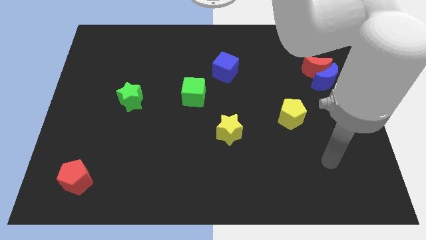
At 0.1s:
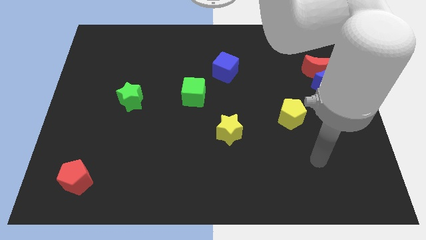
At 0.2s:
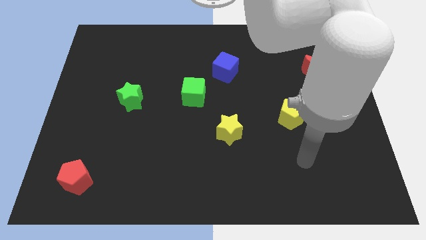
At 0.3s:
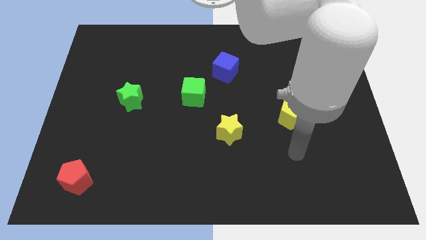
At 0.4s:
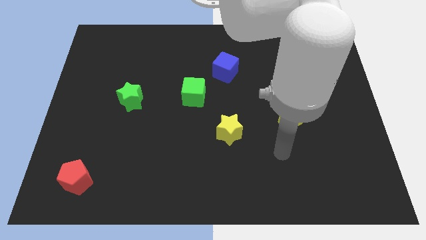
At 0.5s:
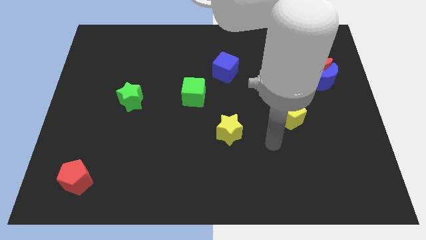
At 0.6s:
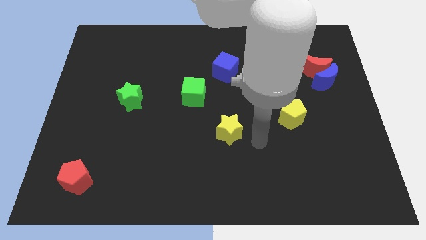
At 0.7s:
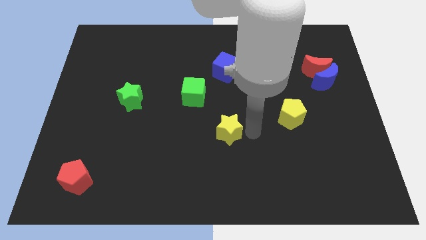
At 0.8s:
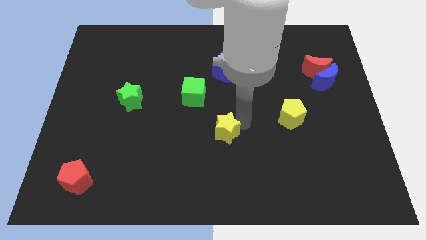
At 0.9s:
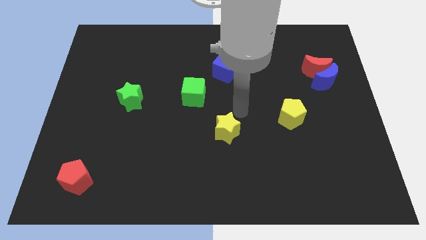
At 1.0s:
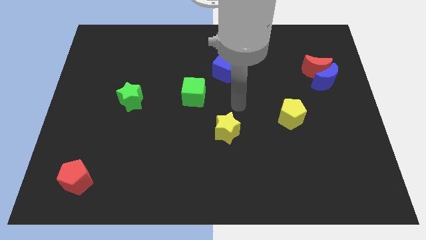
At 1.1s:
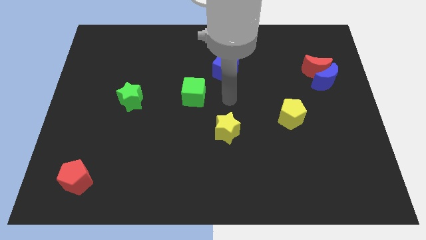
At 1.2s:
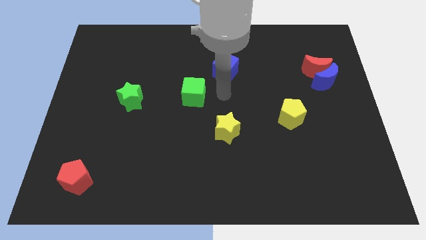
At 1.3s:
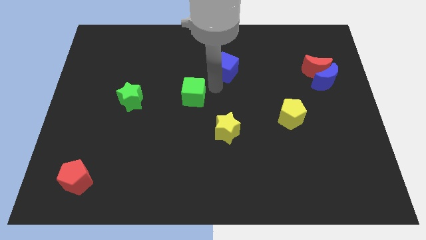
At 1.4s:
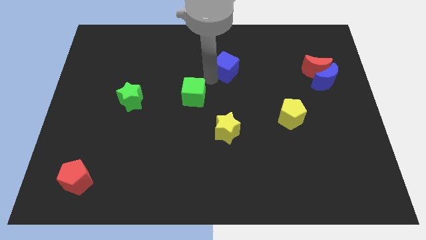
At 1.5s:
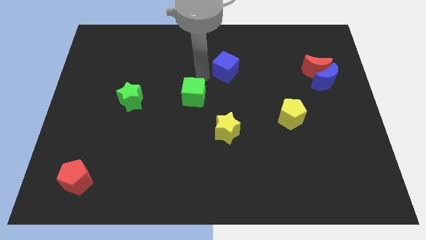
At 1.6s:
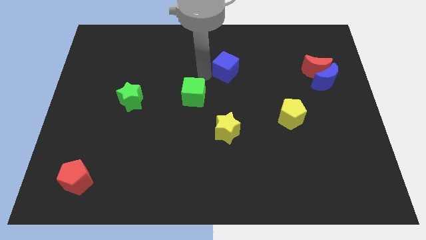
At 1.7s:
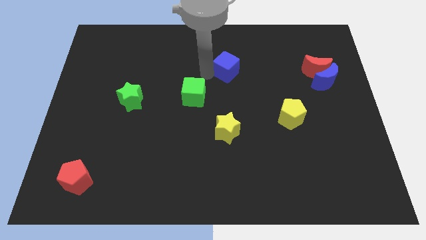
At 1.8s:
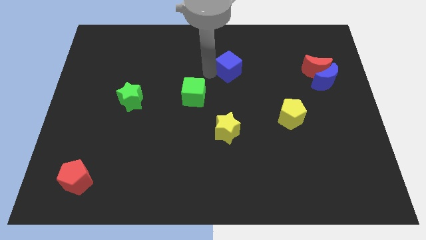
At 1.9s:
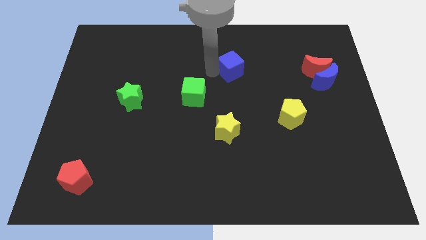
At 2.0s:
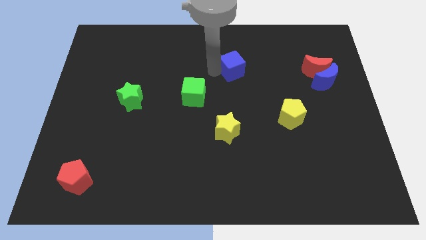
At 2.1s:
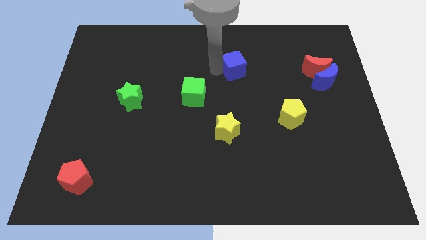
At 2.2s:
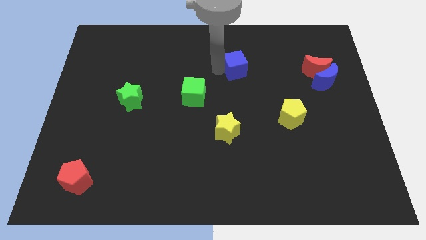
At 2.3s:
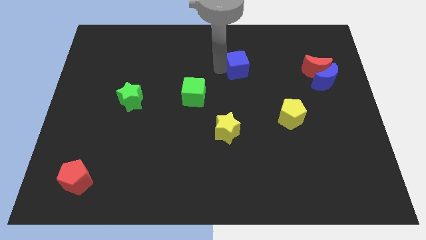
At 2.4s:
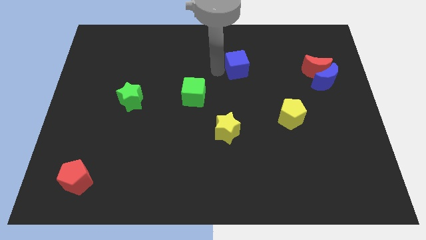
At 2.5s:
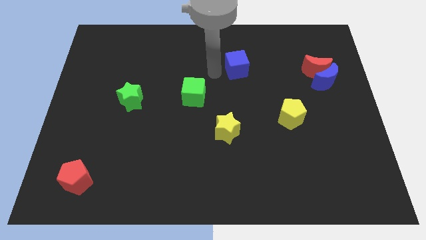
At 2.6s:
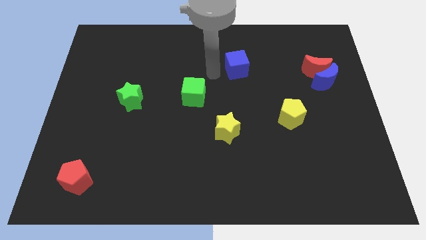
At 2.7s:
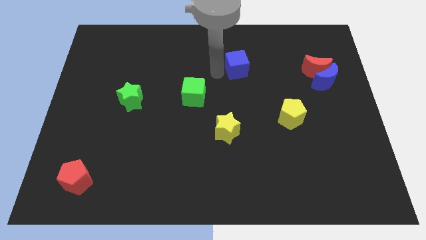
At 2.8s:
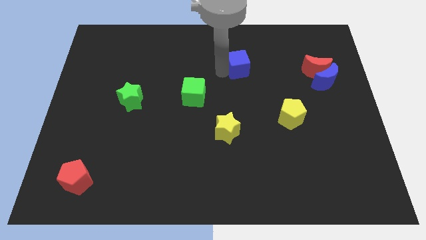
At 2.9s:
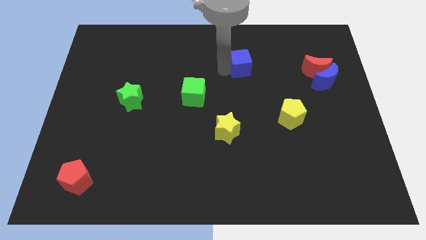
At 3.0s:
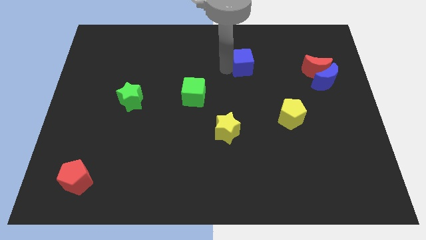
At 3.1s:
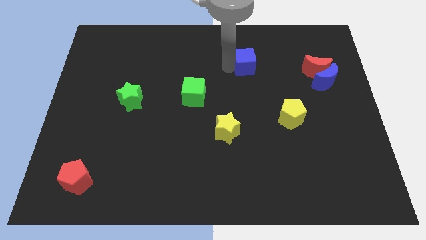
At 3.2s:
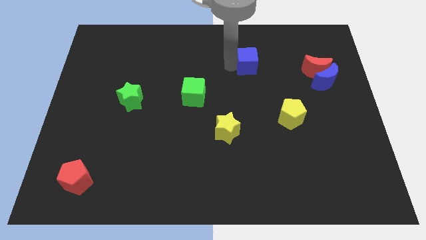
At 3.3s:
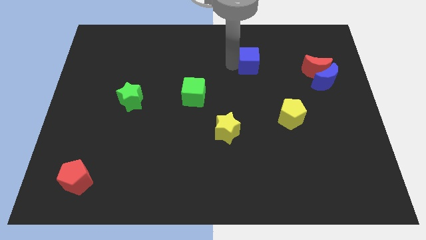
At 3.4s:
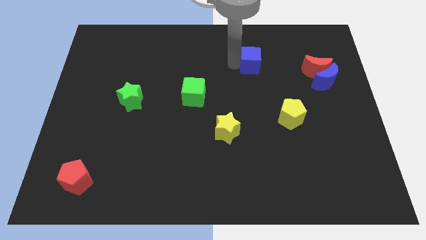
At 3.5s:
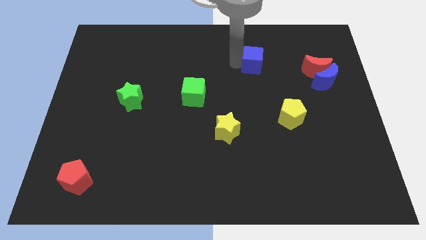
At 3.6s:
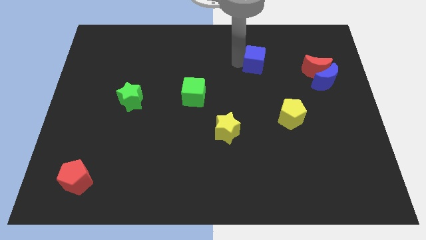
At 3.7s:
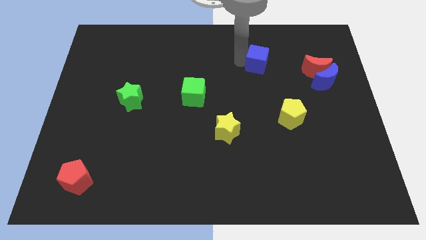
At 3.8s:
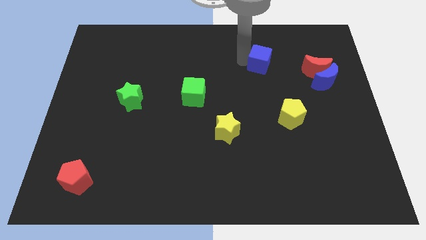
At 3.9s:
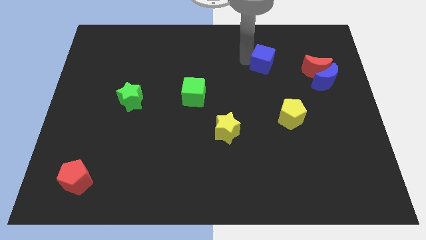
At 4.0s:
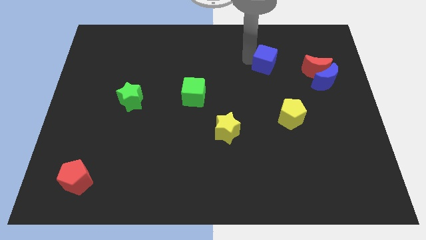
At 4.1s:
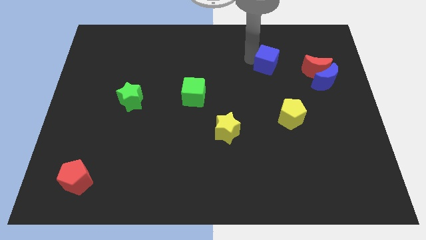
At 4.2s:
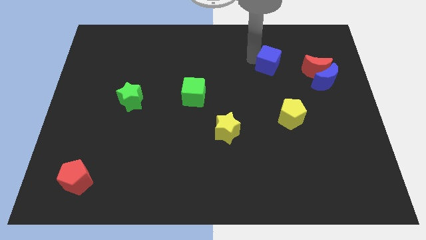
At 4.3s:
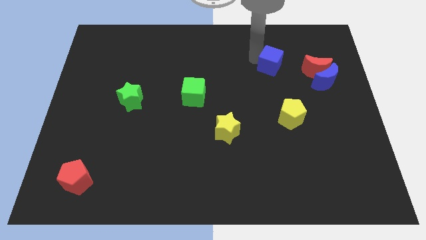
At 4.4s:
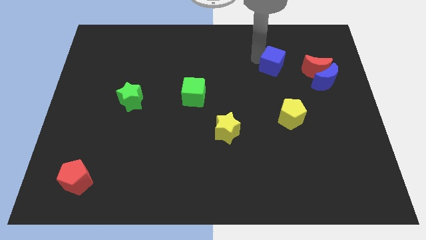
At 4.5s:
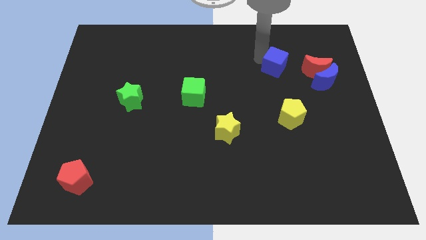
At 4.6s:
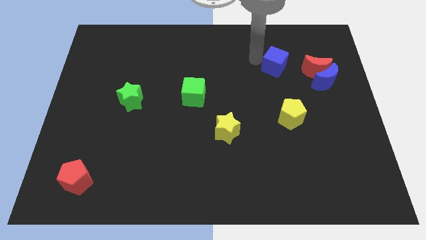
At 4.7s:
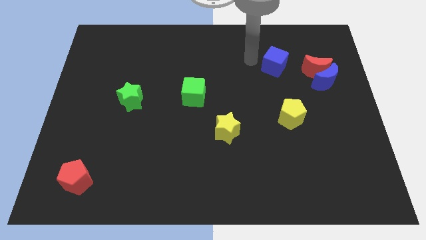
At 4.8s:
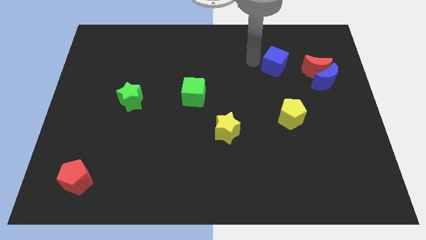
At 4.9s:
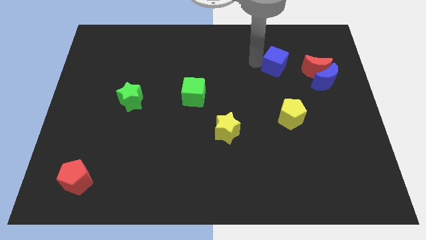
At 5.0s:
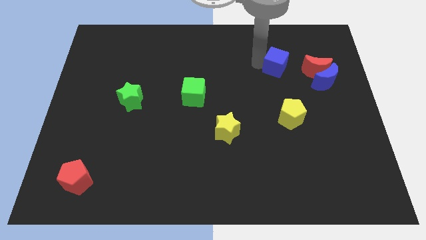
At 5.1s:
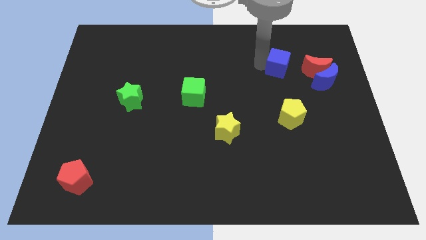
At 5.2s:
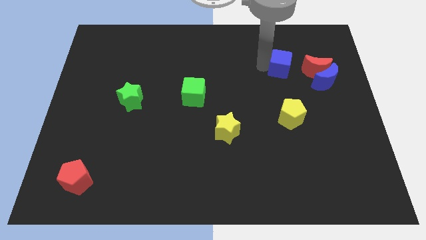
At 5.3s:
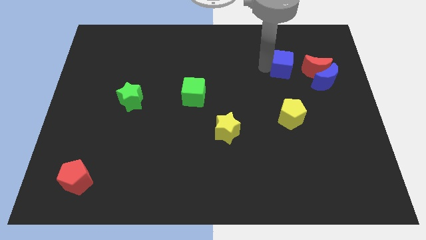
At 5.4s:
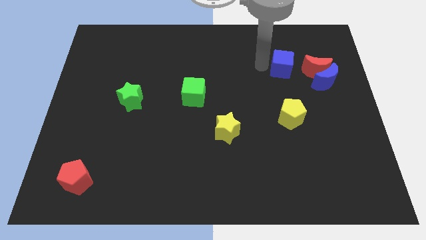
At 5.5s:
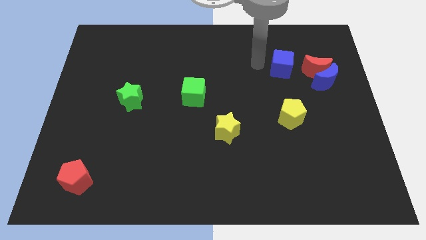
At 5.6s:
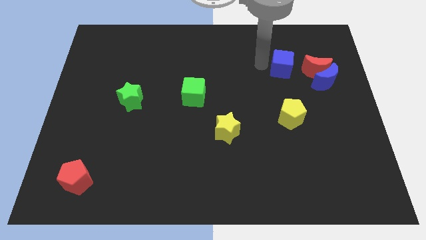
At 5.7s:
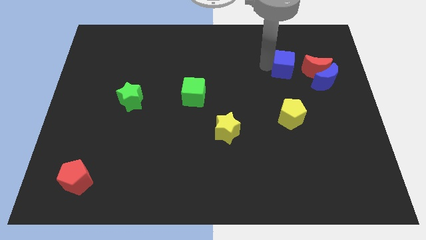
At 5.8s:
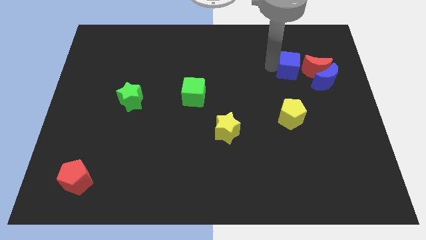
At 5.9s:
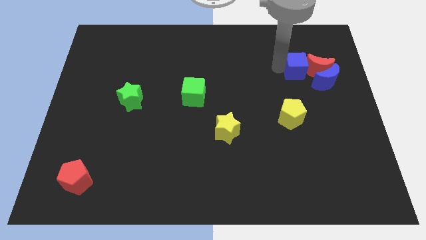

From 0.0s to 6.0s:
slide the blue cube towards the red moon

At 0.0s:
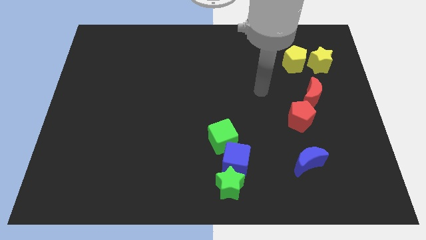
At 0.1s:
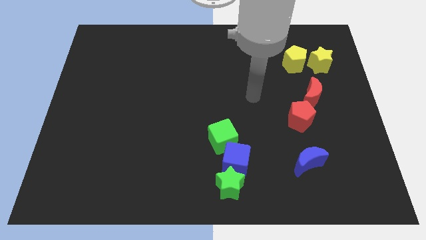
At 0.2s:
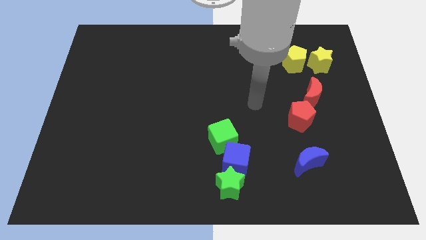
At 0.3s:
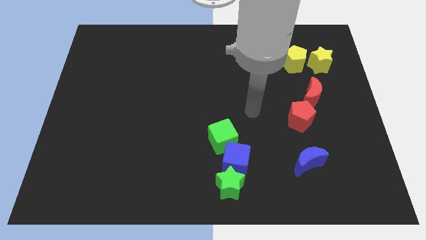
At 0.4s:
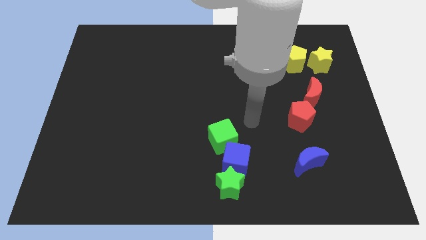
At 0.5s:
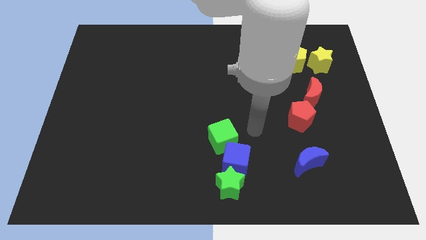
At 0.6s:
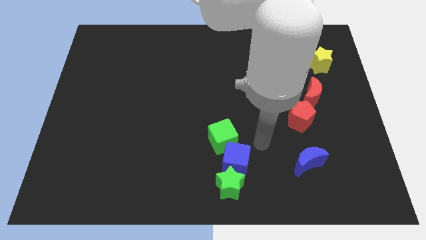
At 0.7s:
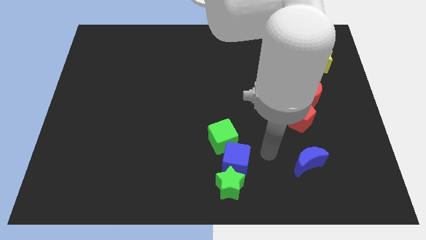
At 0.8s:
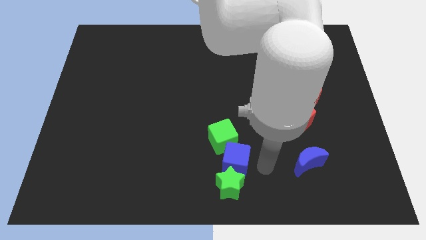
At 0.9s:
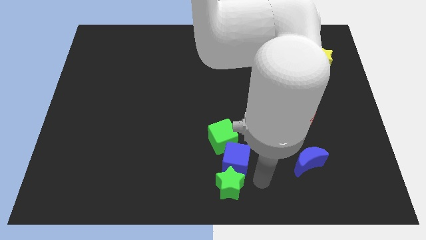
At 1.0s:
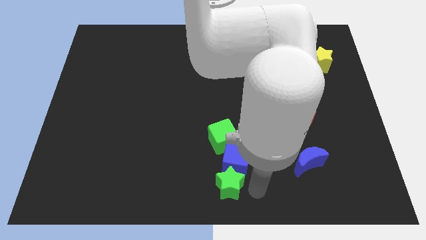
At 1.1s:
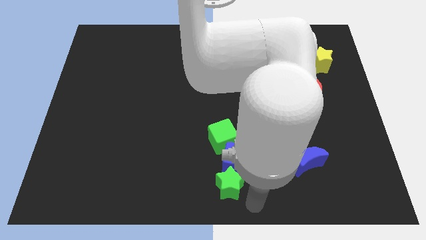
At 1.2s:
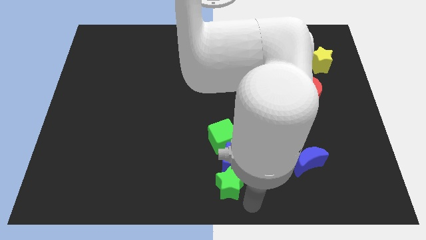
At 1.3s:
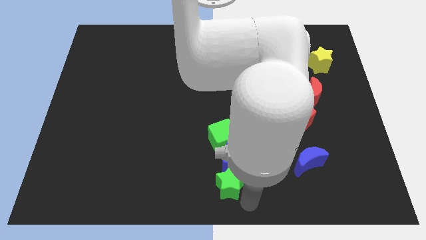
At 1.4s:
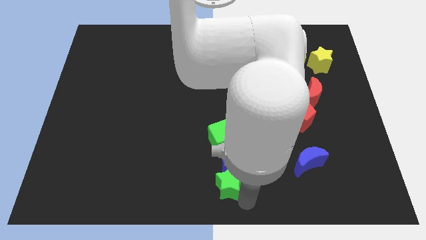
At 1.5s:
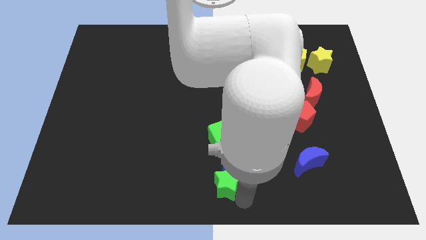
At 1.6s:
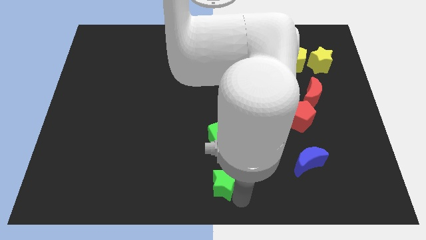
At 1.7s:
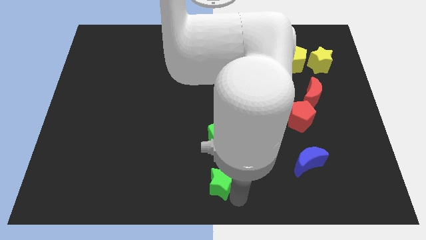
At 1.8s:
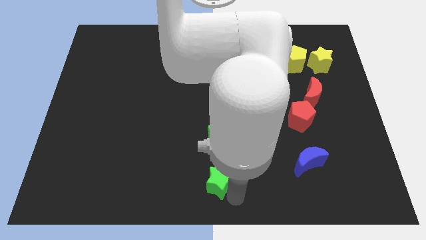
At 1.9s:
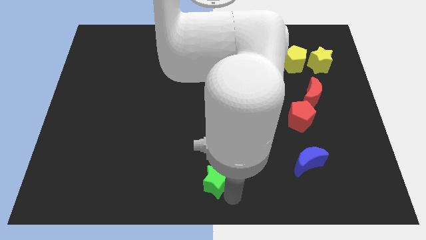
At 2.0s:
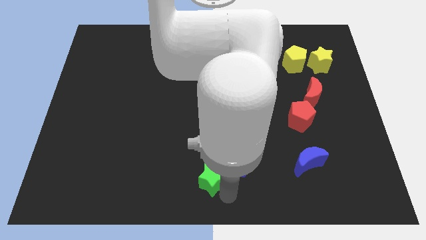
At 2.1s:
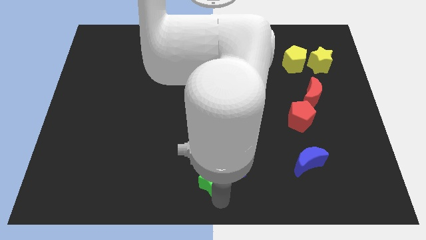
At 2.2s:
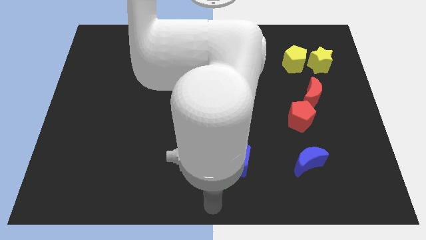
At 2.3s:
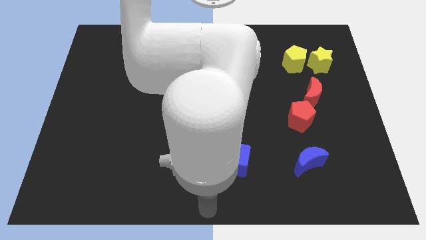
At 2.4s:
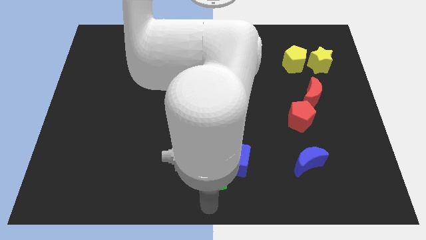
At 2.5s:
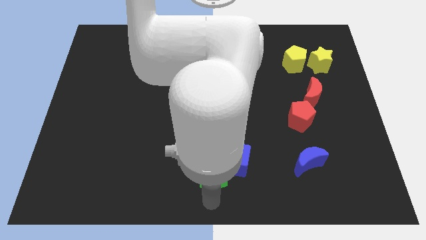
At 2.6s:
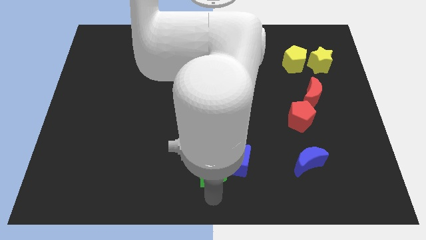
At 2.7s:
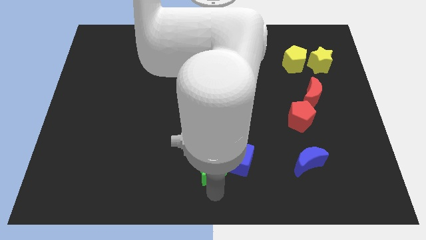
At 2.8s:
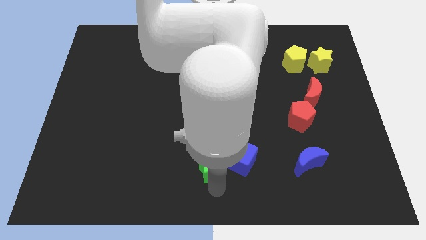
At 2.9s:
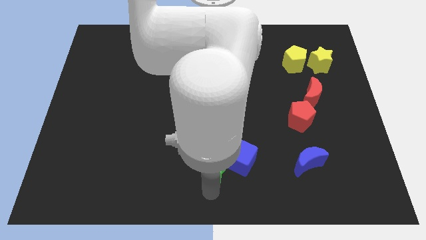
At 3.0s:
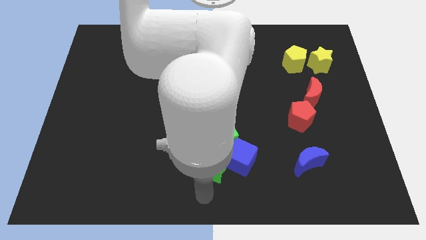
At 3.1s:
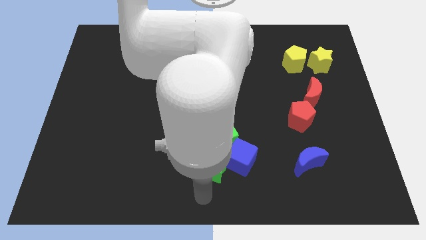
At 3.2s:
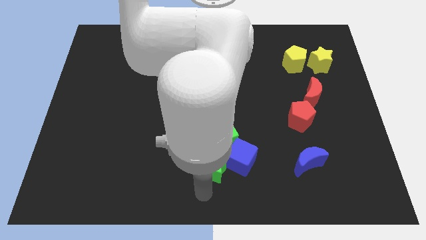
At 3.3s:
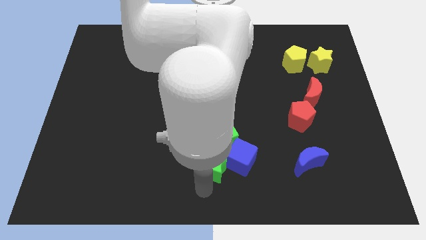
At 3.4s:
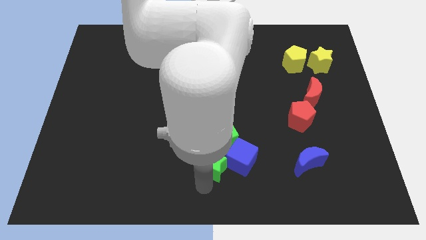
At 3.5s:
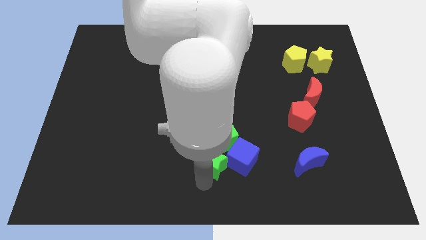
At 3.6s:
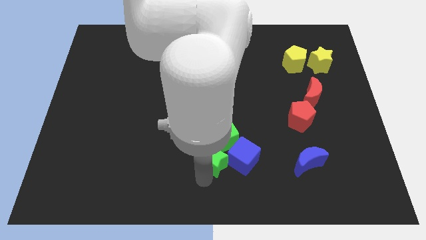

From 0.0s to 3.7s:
put the green star towards the green cube
